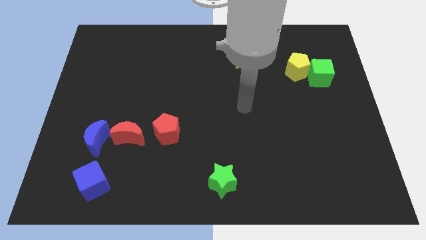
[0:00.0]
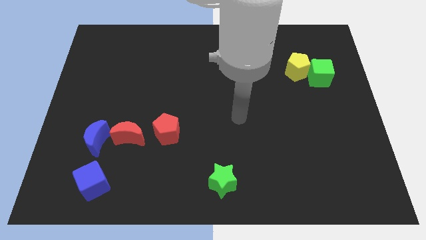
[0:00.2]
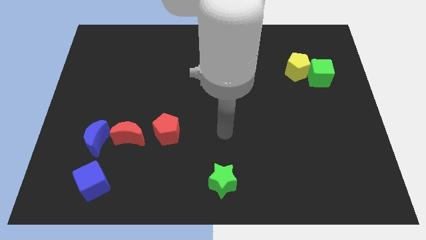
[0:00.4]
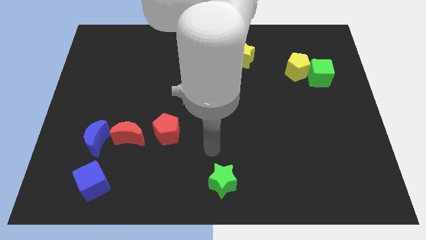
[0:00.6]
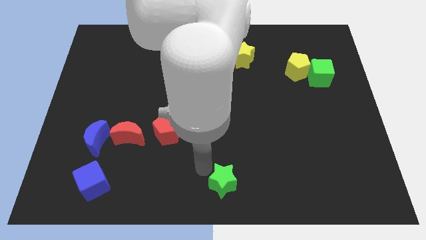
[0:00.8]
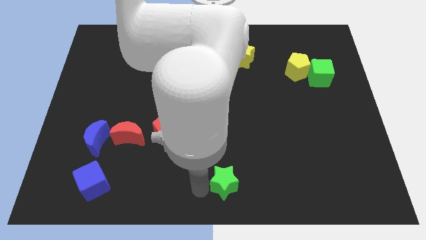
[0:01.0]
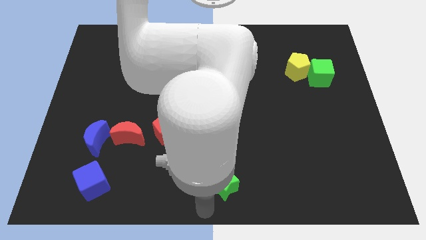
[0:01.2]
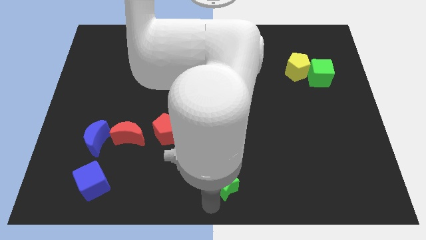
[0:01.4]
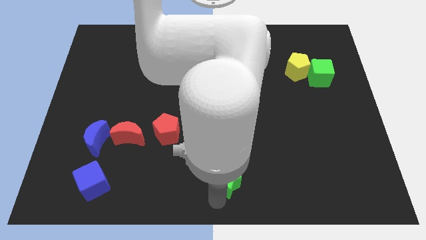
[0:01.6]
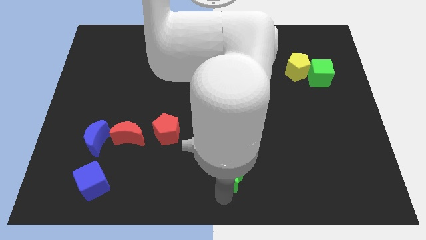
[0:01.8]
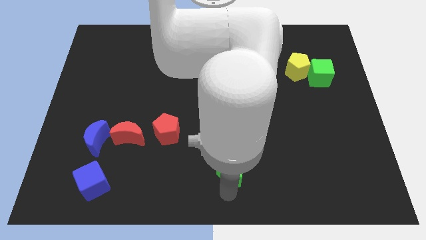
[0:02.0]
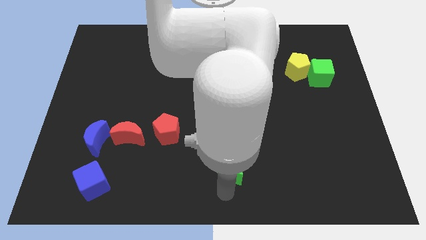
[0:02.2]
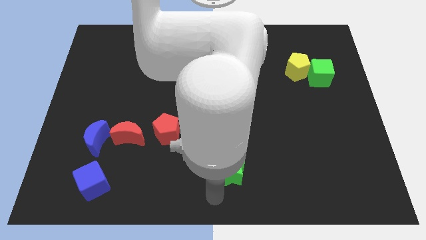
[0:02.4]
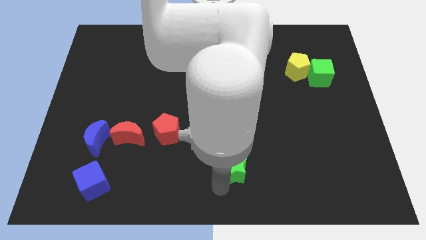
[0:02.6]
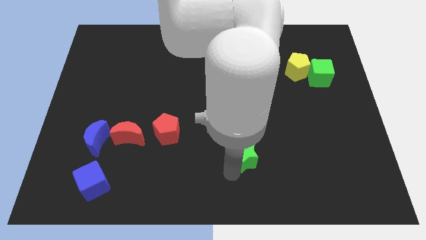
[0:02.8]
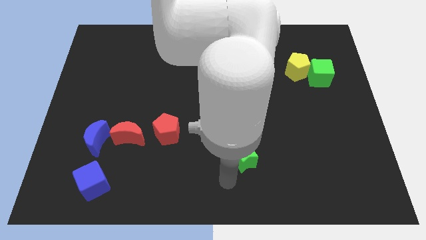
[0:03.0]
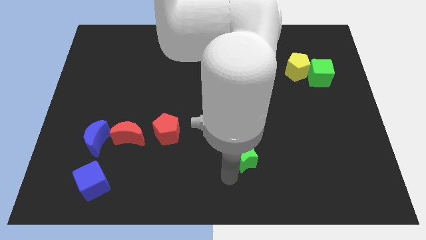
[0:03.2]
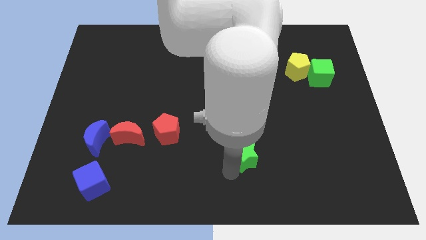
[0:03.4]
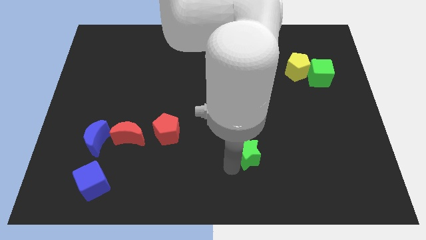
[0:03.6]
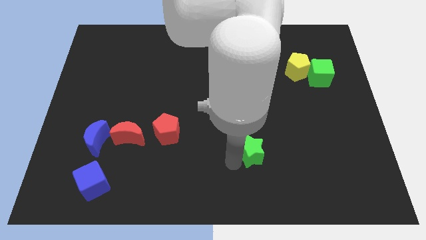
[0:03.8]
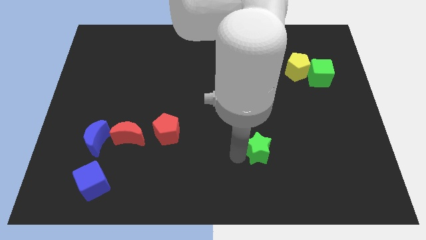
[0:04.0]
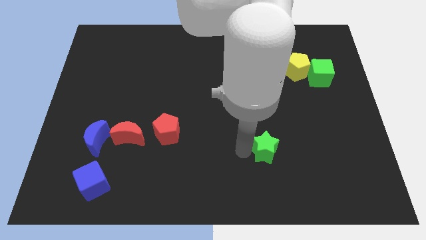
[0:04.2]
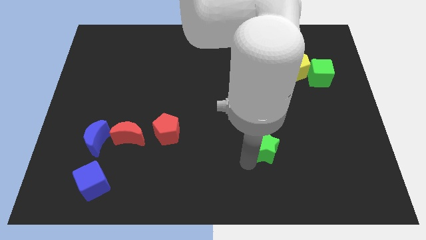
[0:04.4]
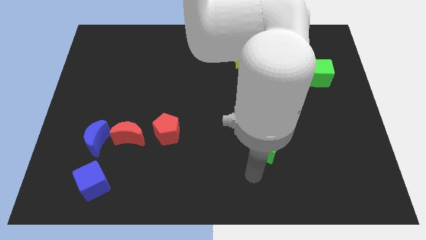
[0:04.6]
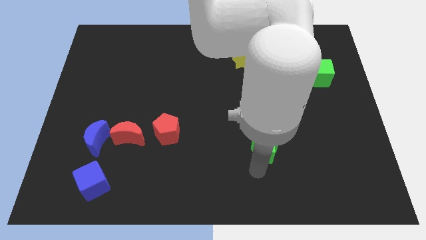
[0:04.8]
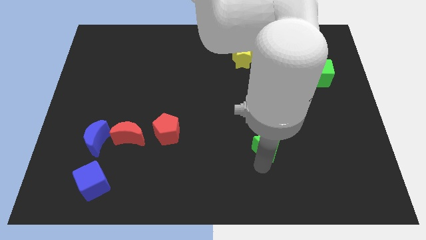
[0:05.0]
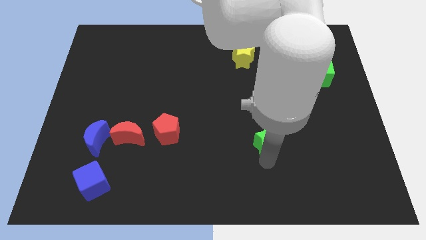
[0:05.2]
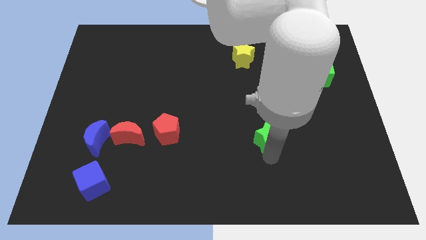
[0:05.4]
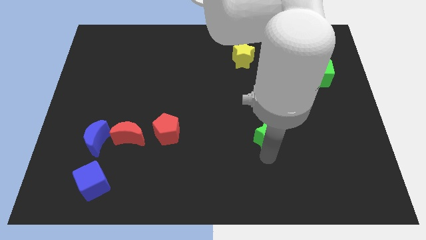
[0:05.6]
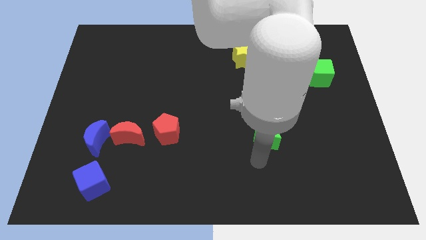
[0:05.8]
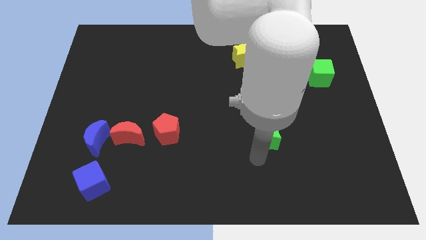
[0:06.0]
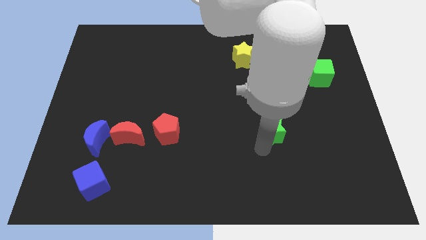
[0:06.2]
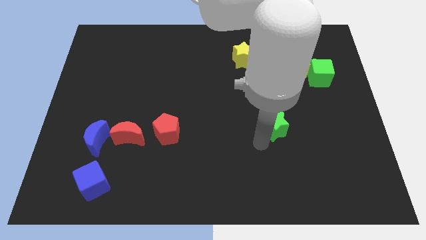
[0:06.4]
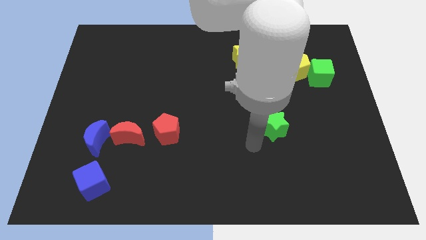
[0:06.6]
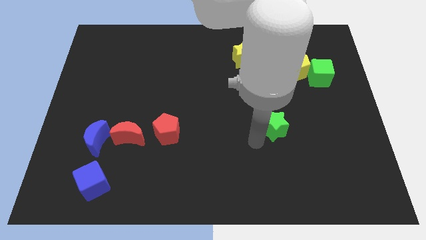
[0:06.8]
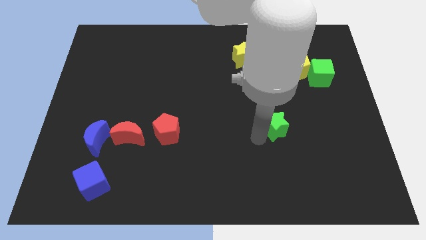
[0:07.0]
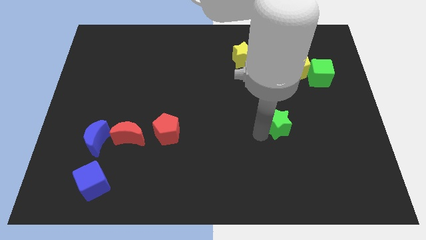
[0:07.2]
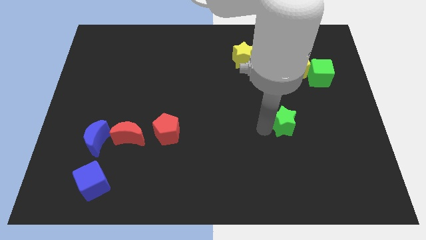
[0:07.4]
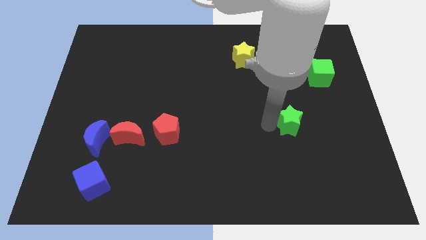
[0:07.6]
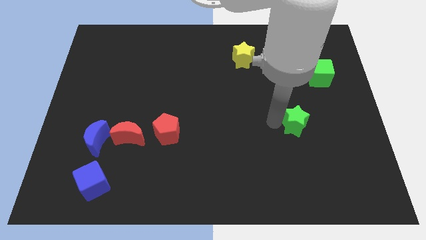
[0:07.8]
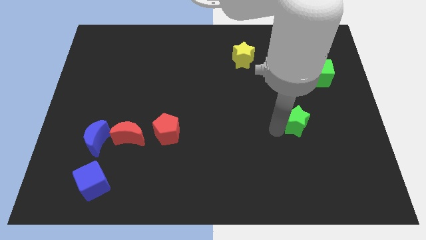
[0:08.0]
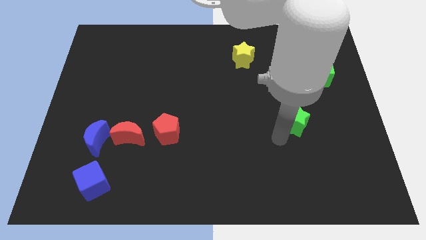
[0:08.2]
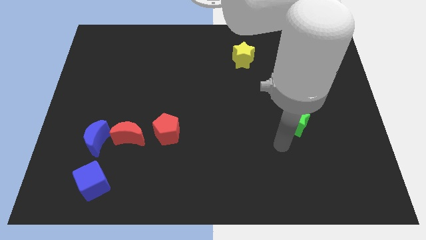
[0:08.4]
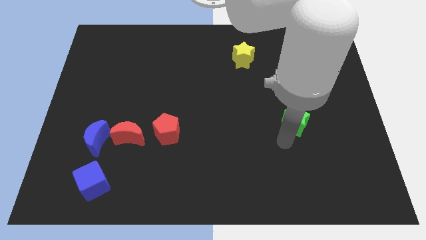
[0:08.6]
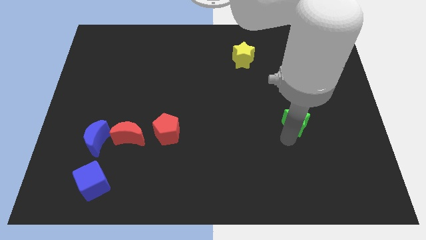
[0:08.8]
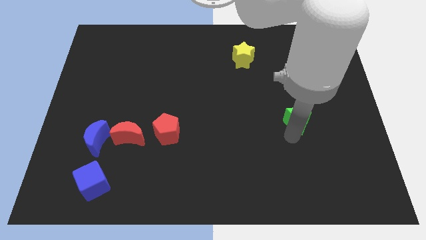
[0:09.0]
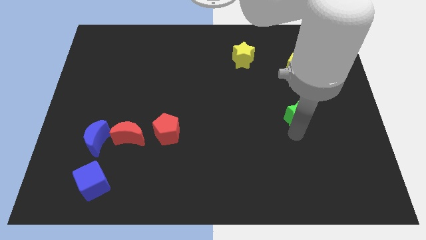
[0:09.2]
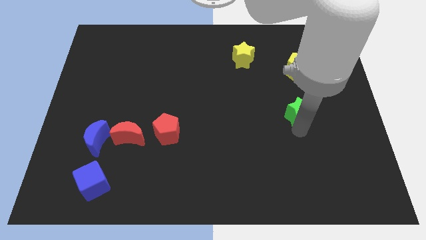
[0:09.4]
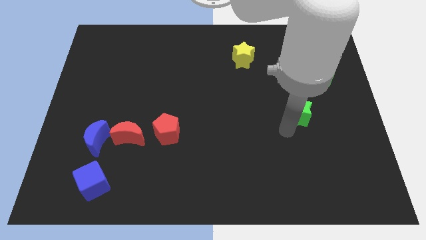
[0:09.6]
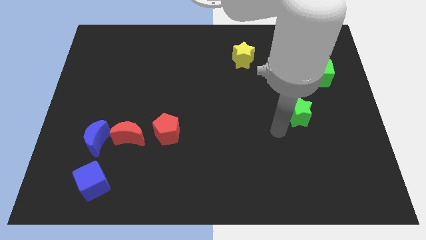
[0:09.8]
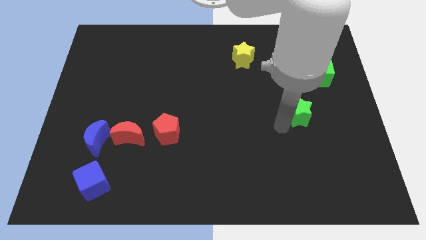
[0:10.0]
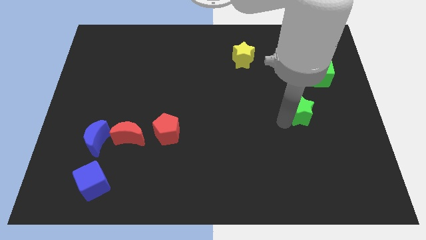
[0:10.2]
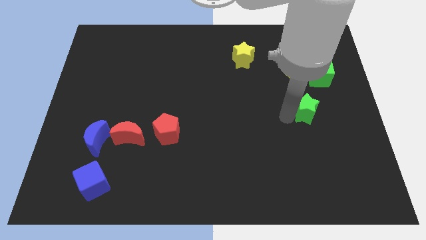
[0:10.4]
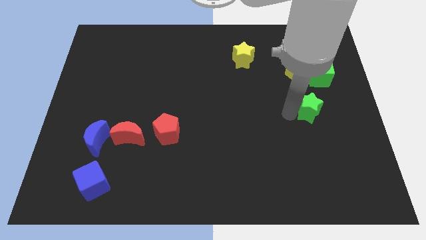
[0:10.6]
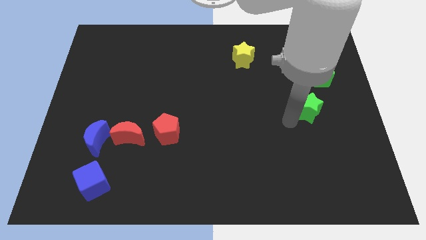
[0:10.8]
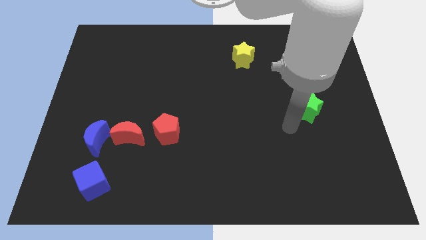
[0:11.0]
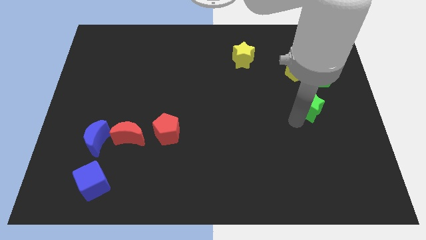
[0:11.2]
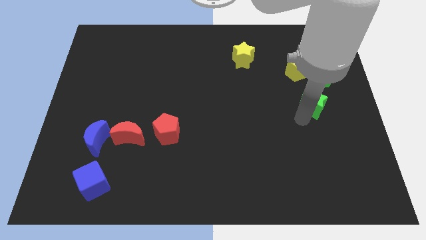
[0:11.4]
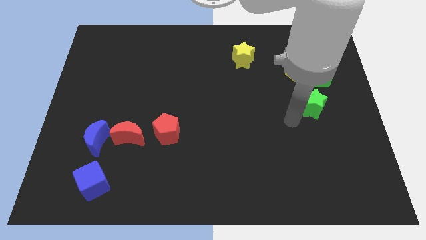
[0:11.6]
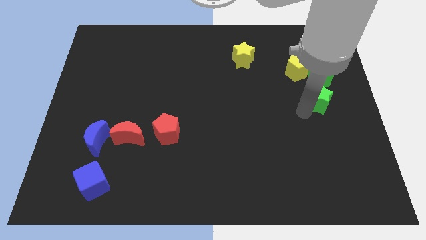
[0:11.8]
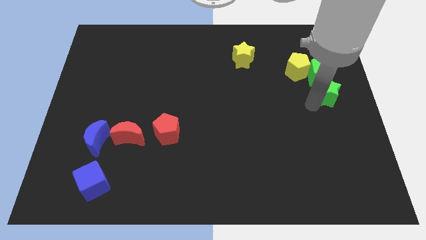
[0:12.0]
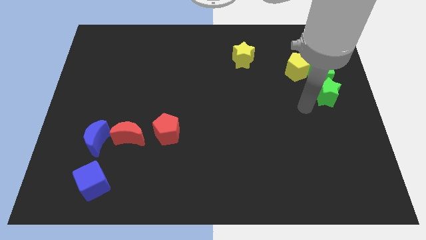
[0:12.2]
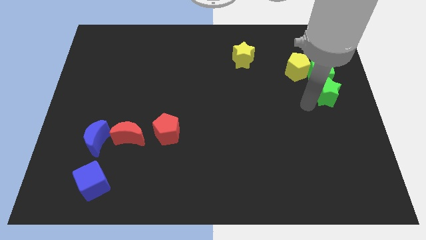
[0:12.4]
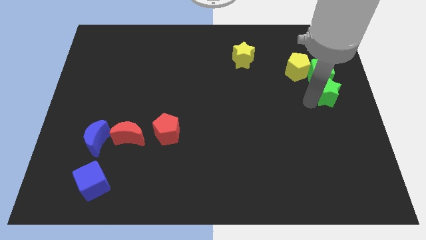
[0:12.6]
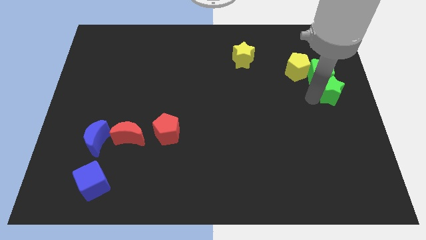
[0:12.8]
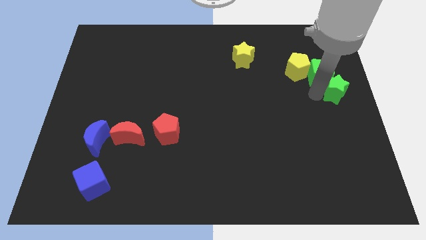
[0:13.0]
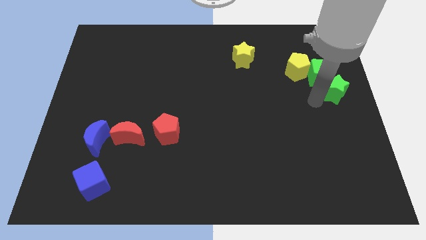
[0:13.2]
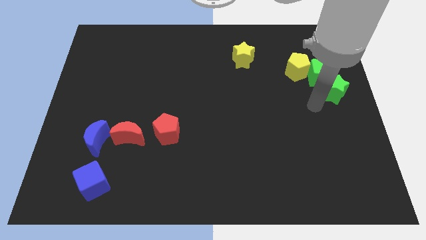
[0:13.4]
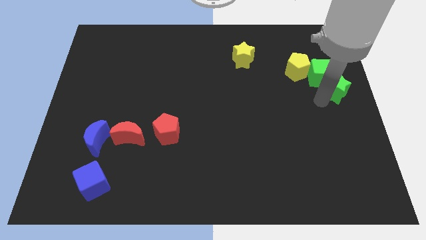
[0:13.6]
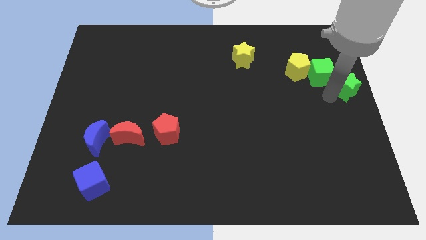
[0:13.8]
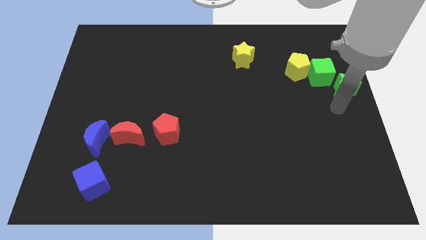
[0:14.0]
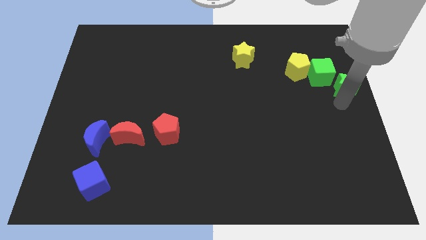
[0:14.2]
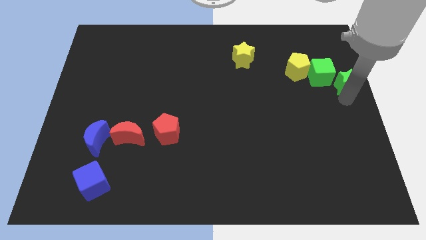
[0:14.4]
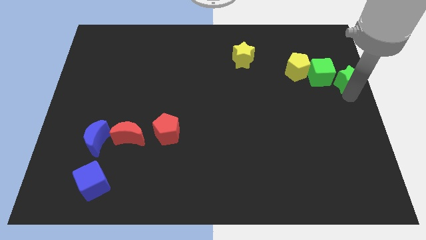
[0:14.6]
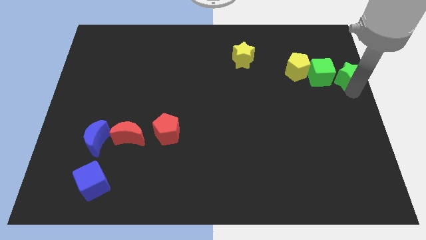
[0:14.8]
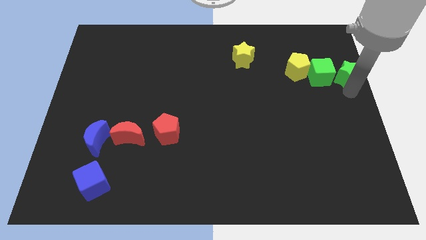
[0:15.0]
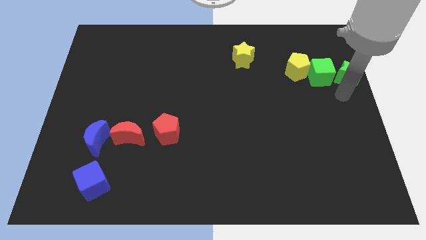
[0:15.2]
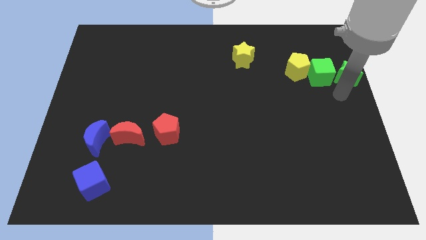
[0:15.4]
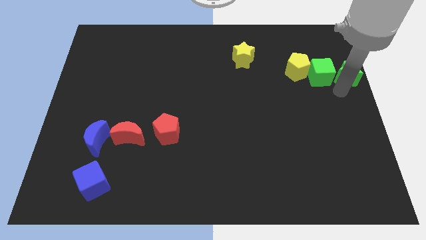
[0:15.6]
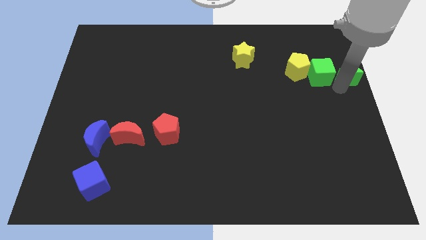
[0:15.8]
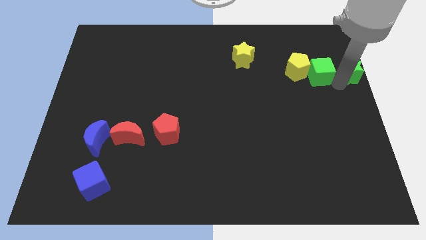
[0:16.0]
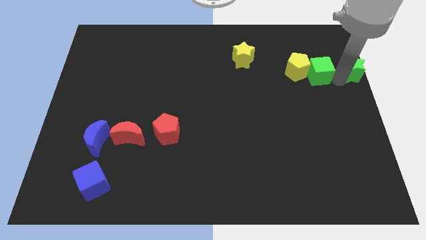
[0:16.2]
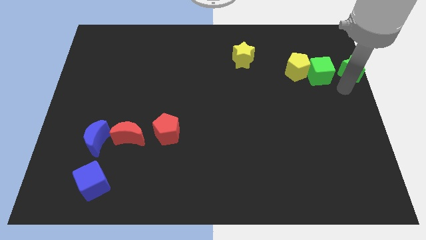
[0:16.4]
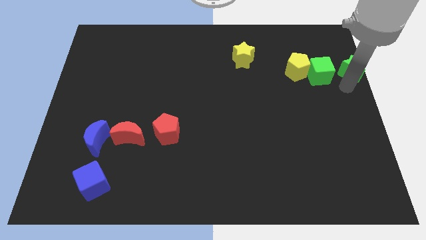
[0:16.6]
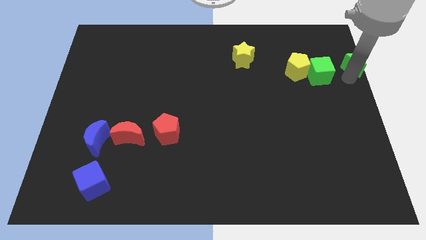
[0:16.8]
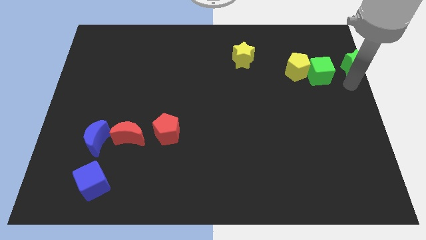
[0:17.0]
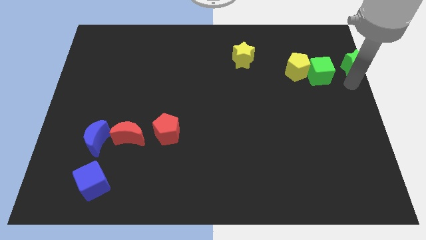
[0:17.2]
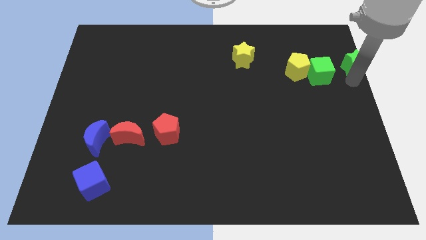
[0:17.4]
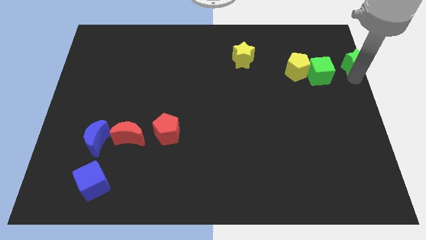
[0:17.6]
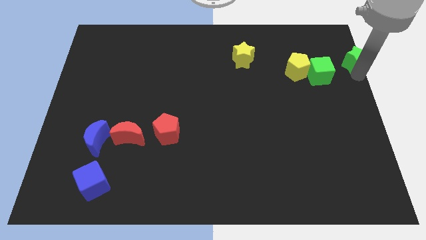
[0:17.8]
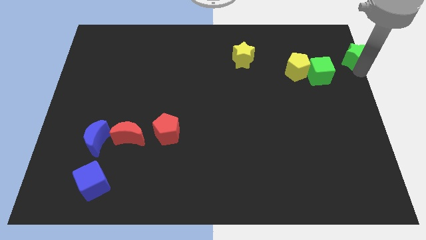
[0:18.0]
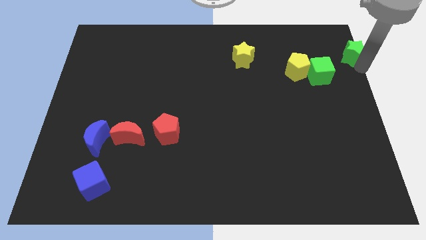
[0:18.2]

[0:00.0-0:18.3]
put the green star to the upper right corner
